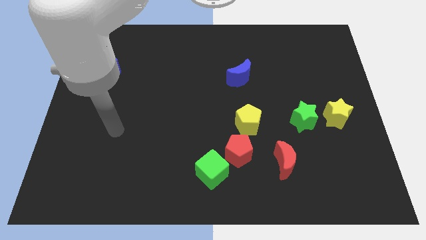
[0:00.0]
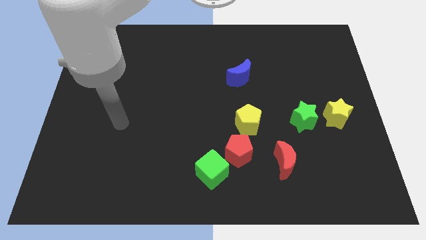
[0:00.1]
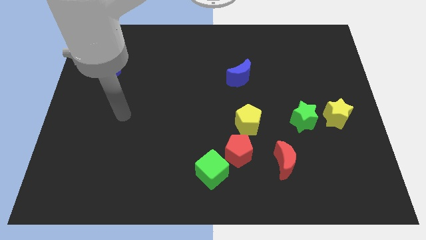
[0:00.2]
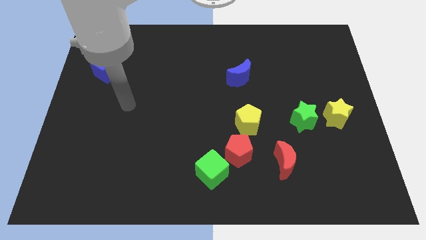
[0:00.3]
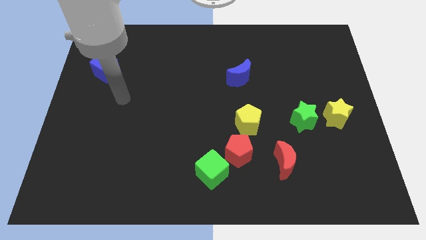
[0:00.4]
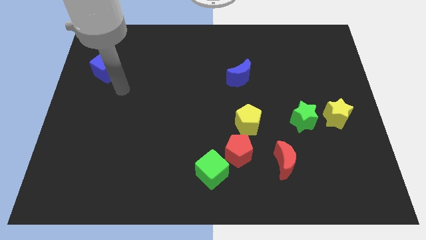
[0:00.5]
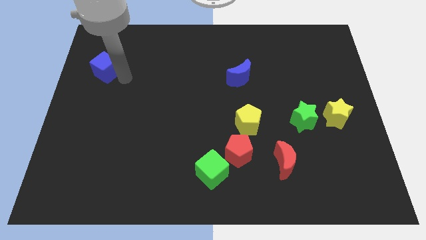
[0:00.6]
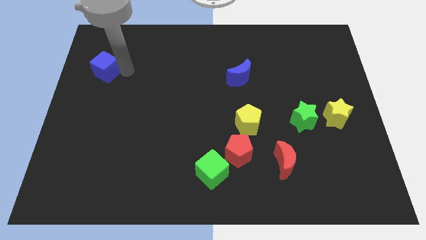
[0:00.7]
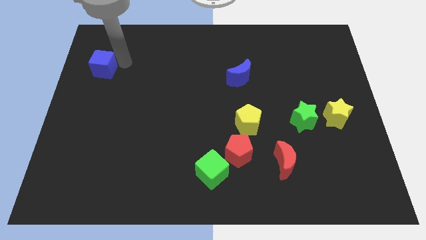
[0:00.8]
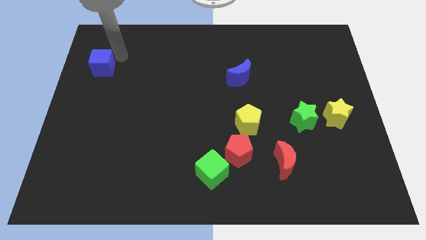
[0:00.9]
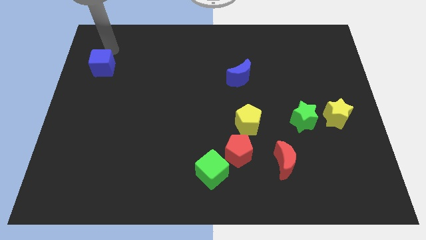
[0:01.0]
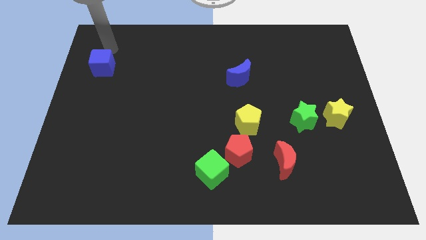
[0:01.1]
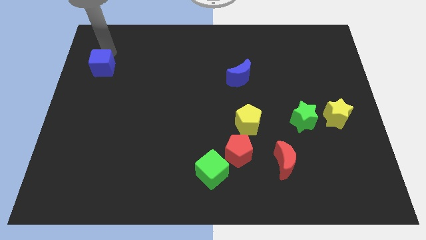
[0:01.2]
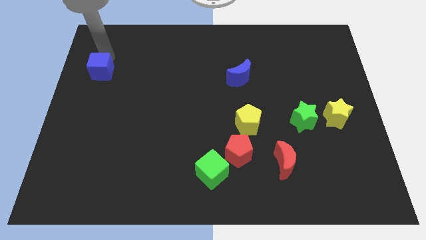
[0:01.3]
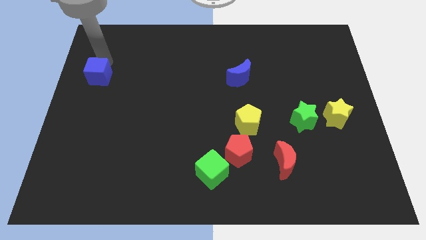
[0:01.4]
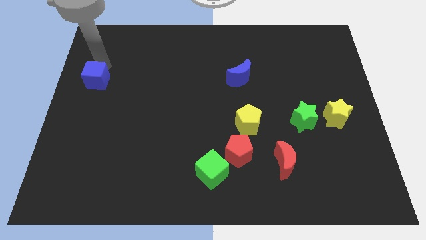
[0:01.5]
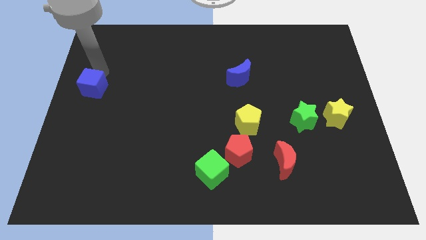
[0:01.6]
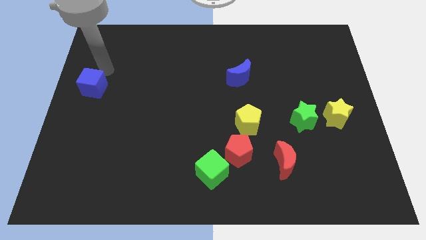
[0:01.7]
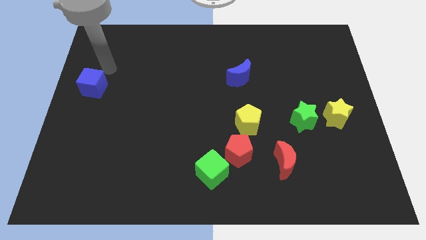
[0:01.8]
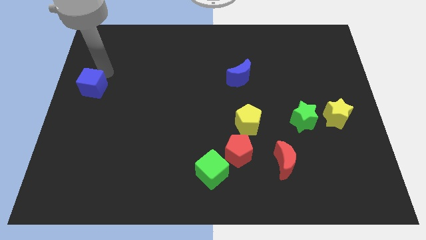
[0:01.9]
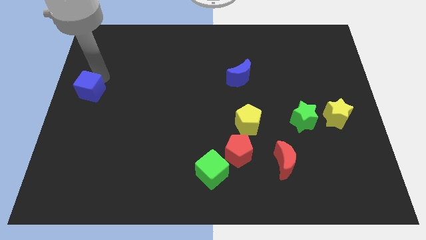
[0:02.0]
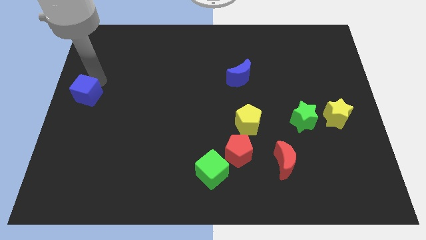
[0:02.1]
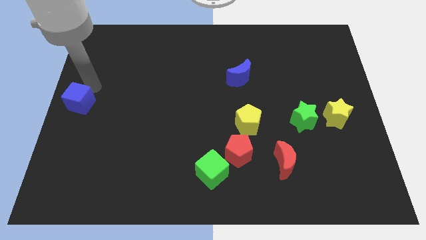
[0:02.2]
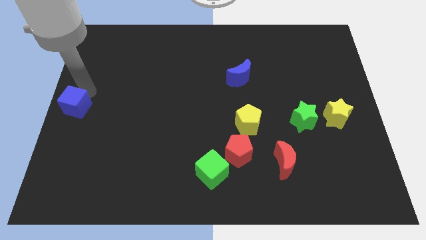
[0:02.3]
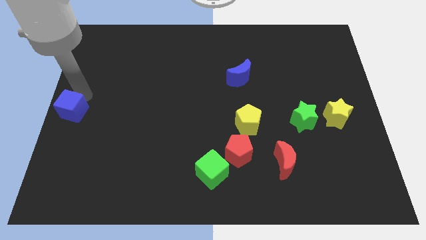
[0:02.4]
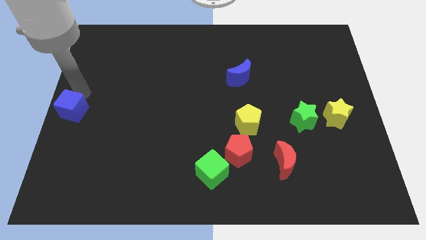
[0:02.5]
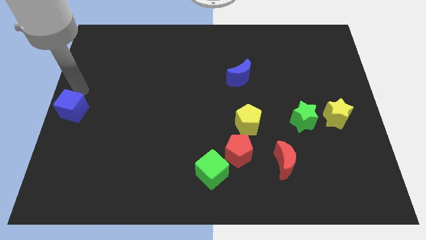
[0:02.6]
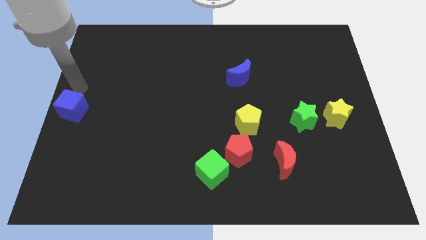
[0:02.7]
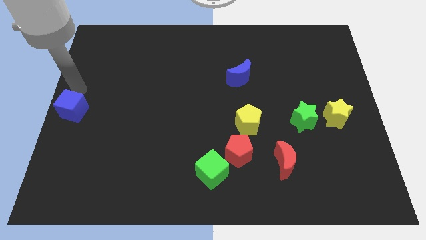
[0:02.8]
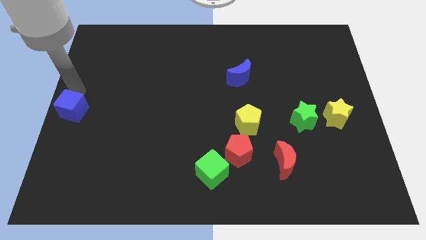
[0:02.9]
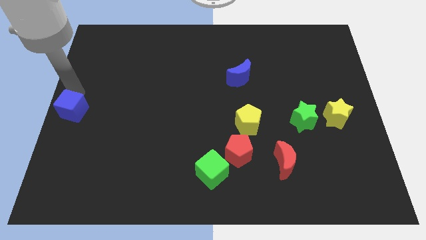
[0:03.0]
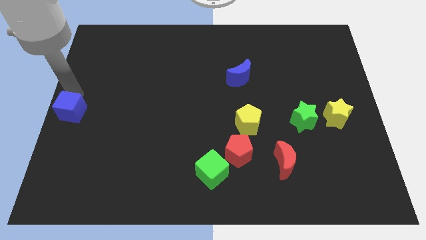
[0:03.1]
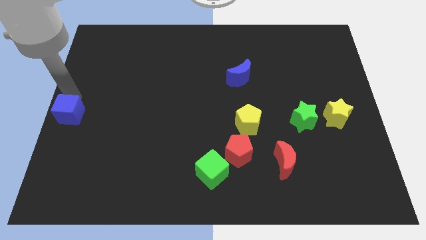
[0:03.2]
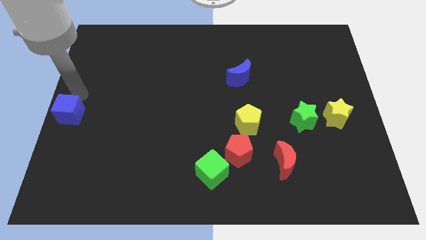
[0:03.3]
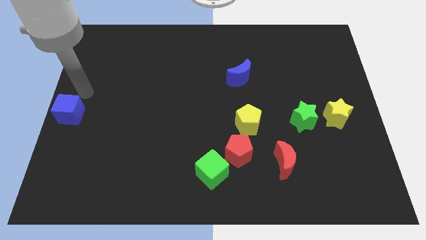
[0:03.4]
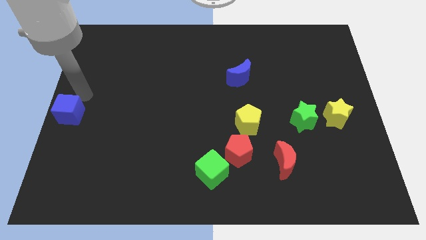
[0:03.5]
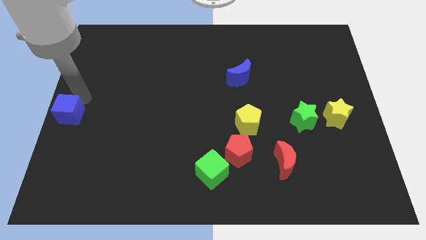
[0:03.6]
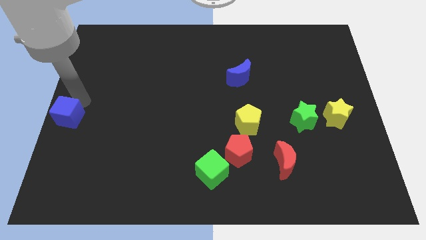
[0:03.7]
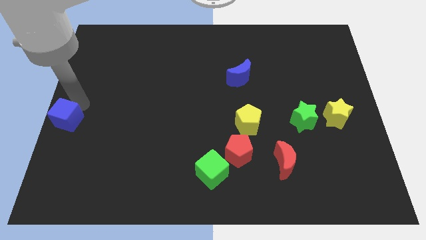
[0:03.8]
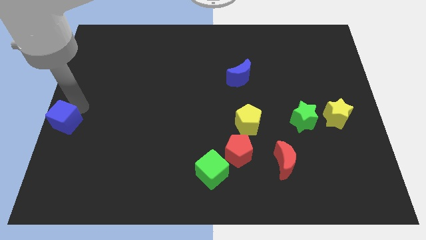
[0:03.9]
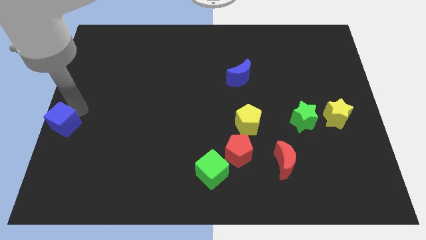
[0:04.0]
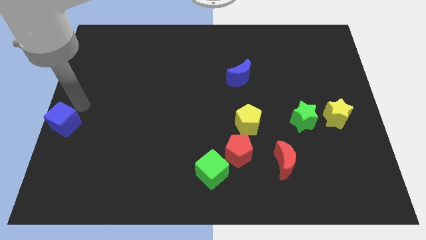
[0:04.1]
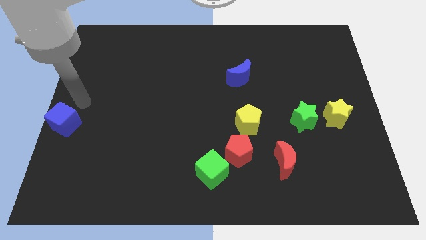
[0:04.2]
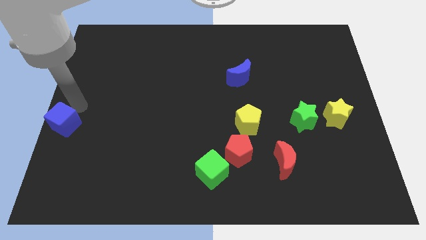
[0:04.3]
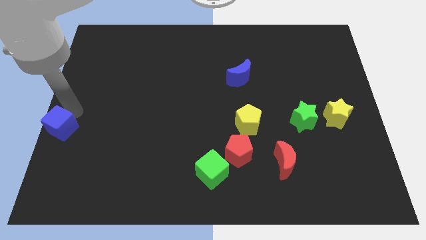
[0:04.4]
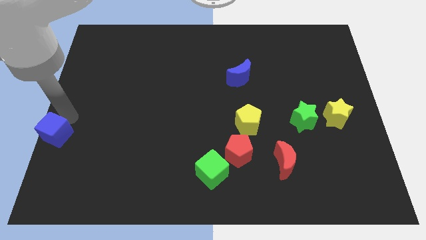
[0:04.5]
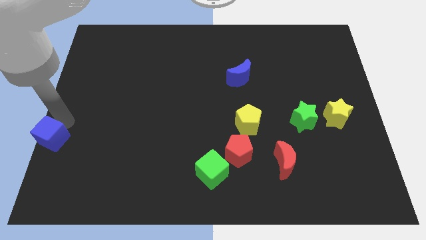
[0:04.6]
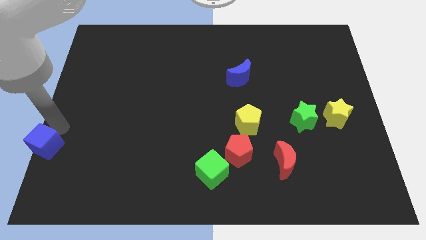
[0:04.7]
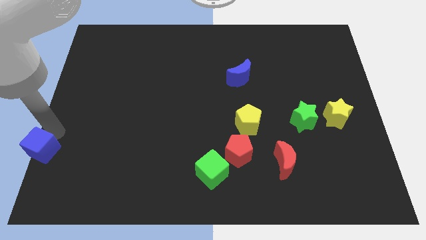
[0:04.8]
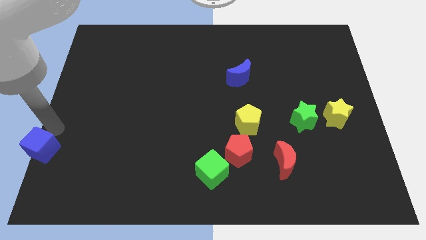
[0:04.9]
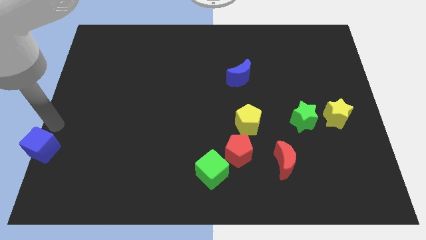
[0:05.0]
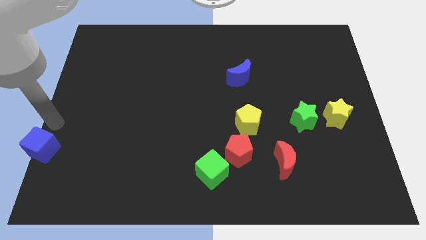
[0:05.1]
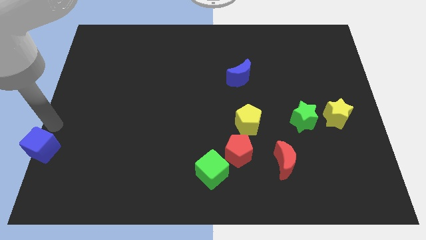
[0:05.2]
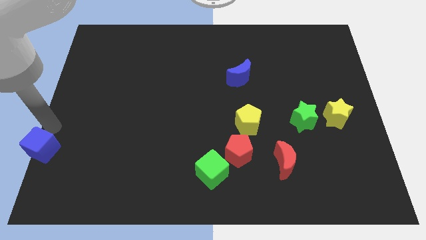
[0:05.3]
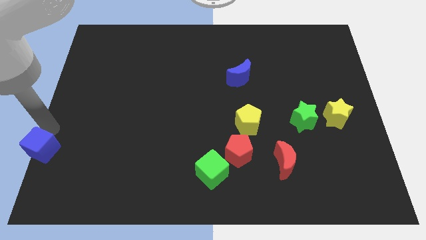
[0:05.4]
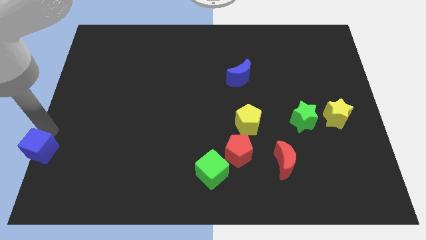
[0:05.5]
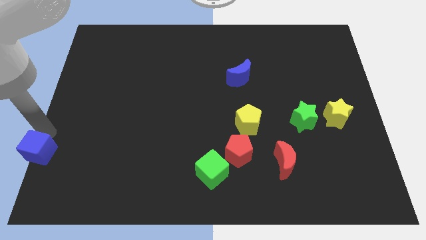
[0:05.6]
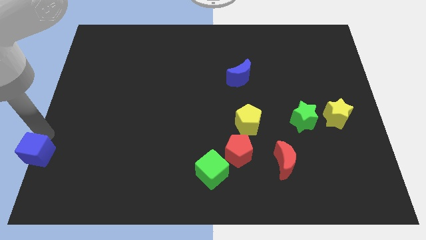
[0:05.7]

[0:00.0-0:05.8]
push the blue cube to the bottom left
